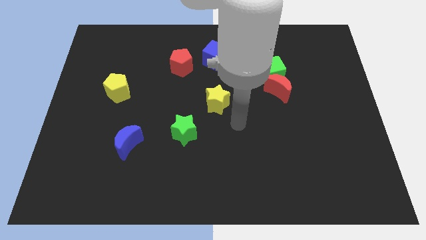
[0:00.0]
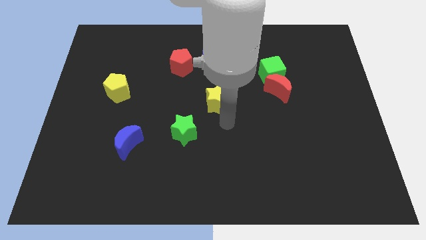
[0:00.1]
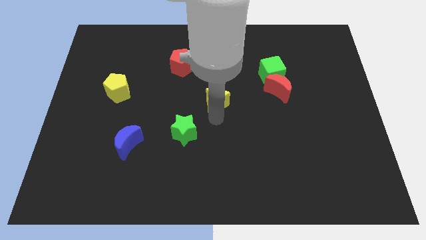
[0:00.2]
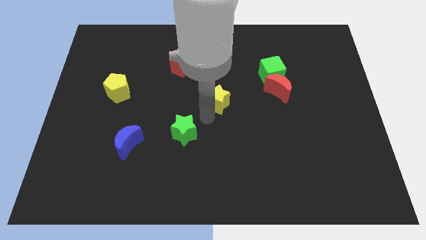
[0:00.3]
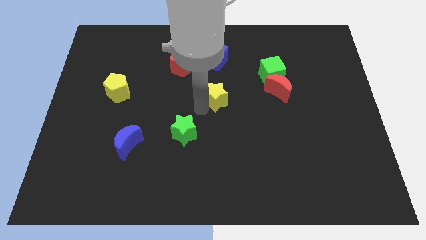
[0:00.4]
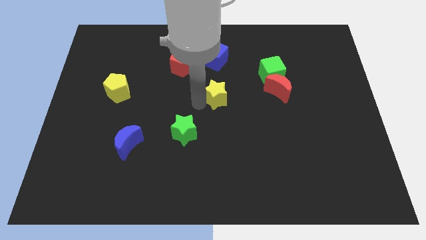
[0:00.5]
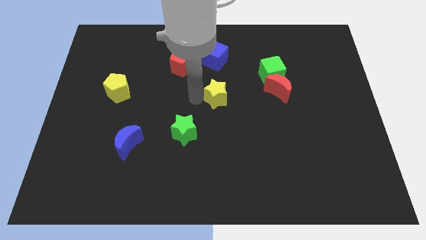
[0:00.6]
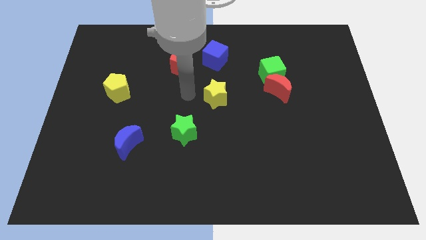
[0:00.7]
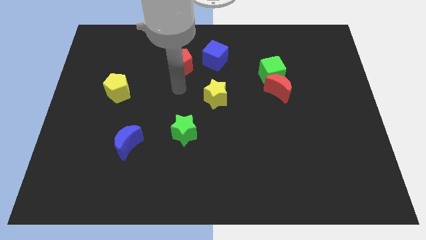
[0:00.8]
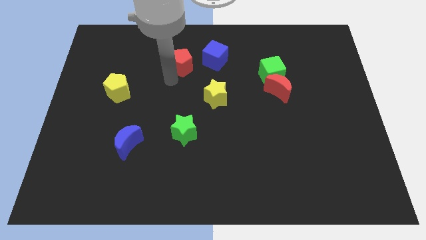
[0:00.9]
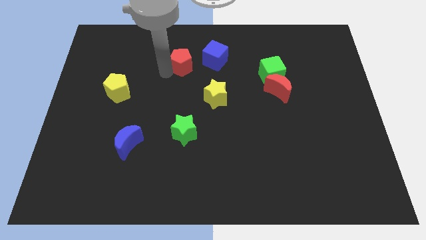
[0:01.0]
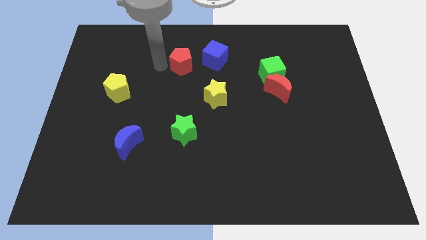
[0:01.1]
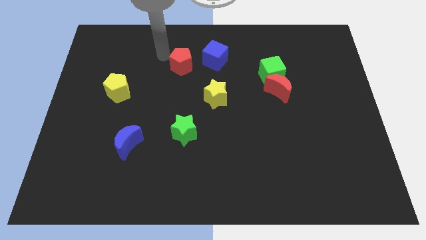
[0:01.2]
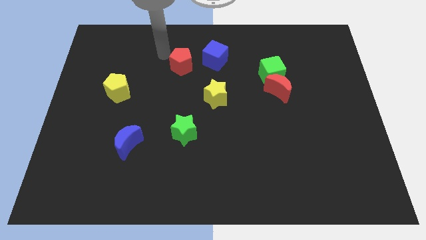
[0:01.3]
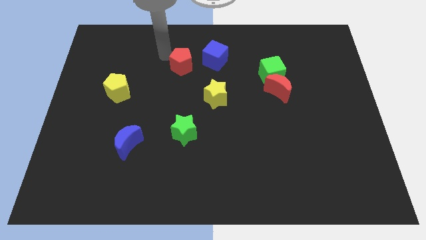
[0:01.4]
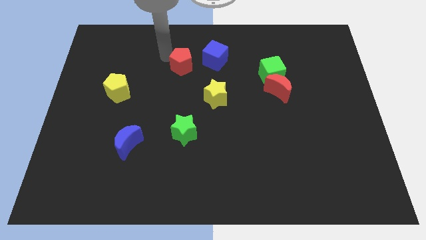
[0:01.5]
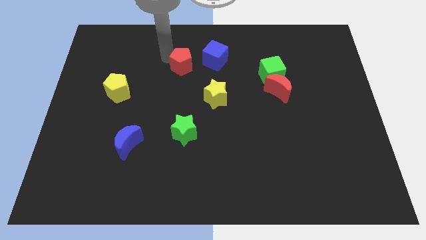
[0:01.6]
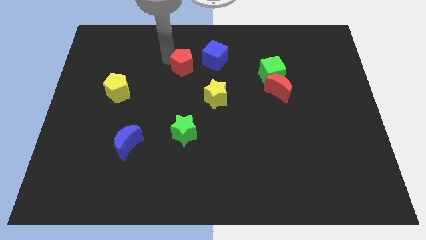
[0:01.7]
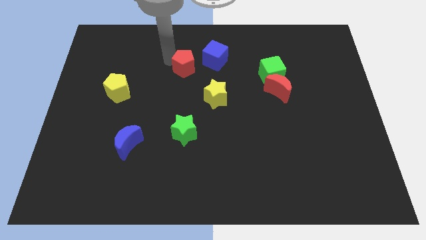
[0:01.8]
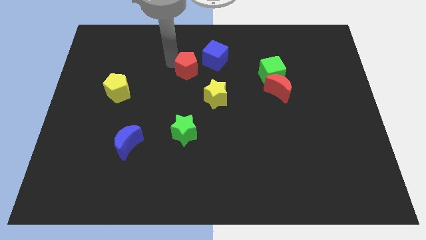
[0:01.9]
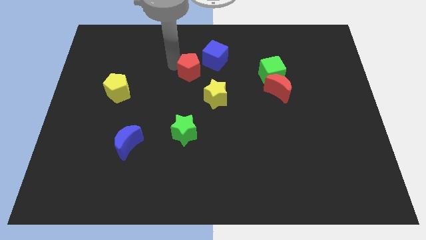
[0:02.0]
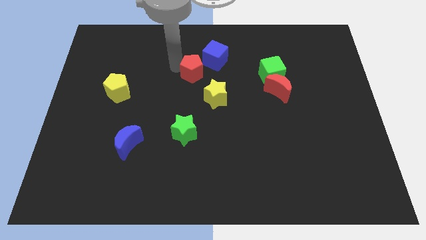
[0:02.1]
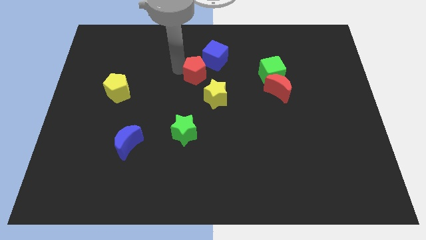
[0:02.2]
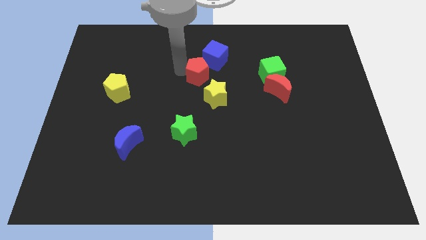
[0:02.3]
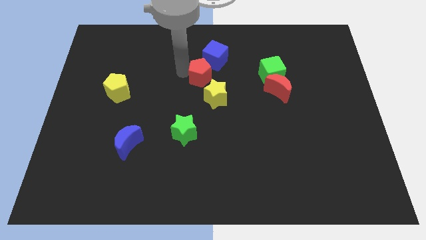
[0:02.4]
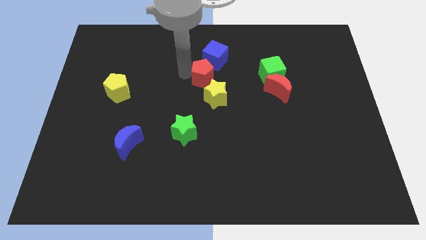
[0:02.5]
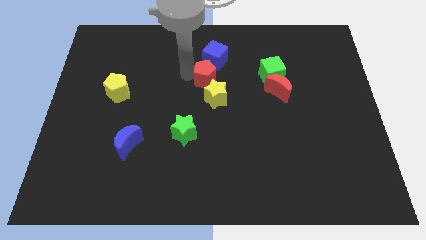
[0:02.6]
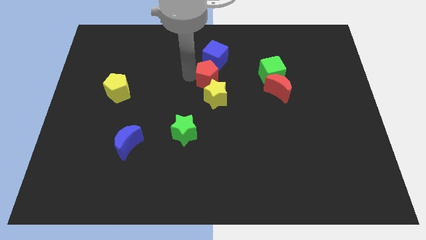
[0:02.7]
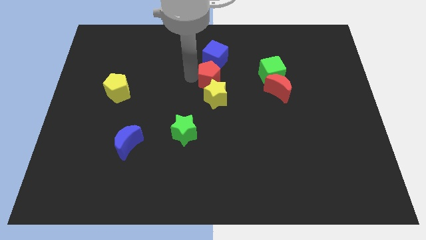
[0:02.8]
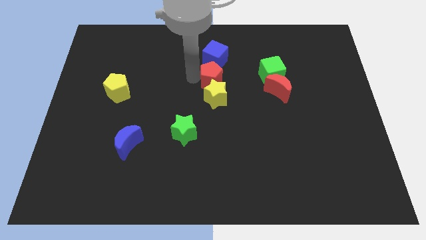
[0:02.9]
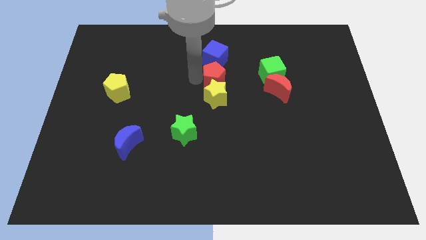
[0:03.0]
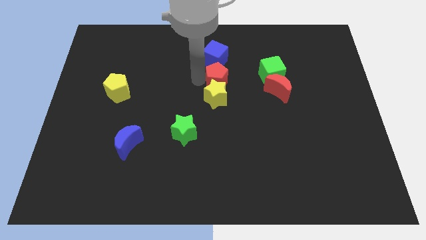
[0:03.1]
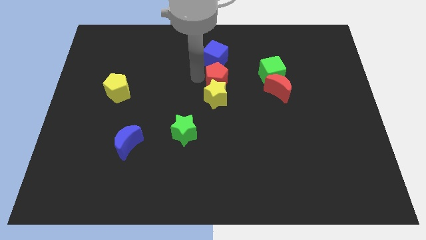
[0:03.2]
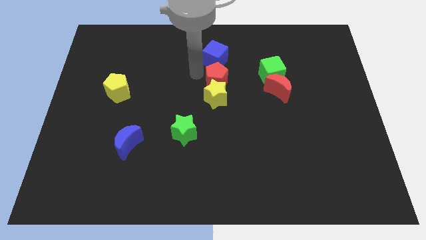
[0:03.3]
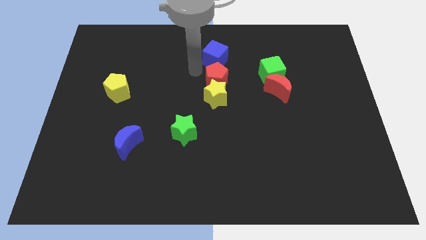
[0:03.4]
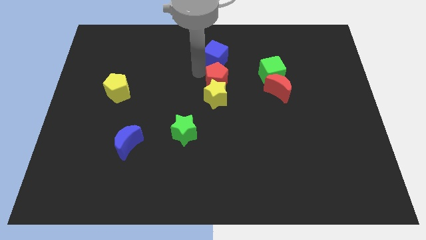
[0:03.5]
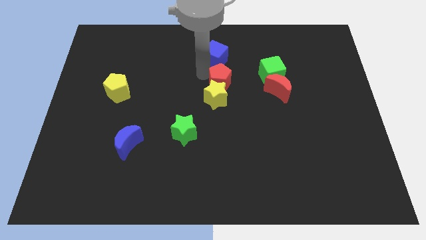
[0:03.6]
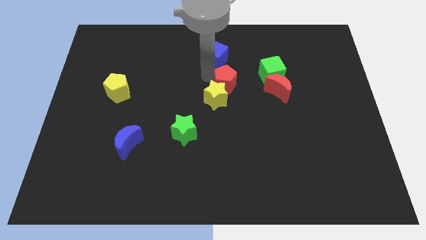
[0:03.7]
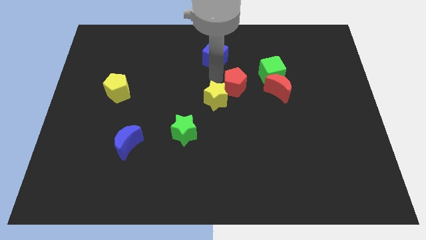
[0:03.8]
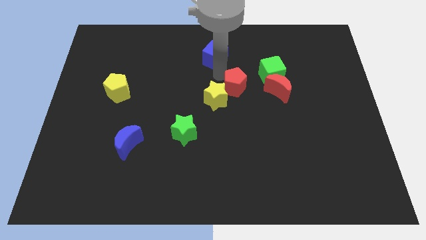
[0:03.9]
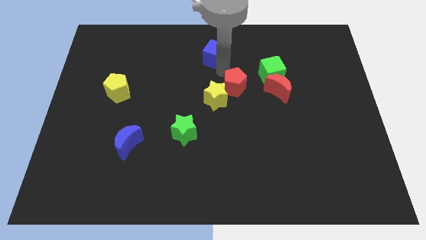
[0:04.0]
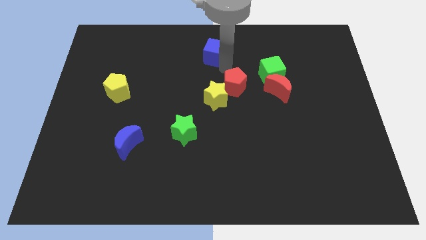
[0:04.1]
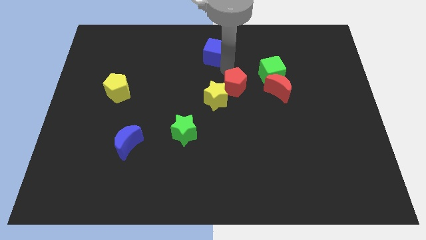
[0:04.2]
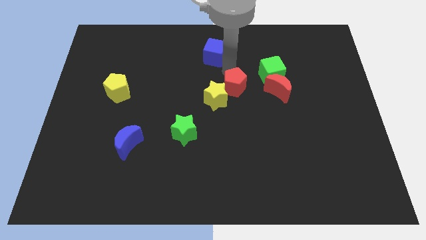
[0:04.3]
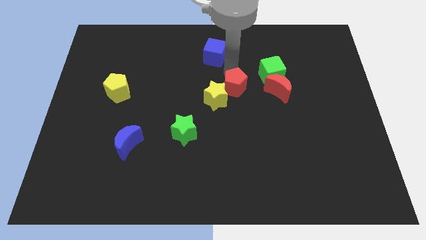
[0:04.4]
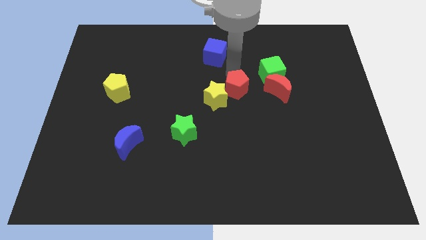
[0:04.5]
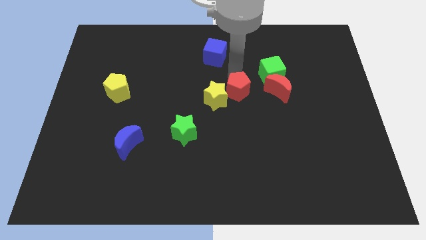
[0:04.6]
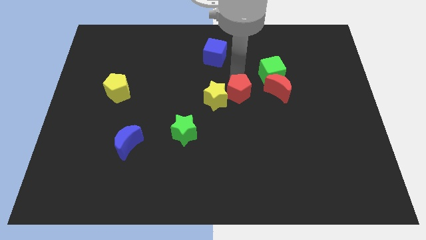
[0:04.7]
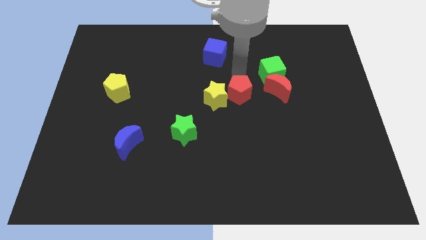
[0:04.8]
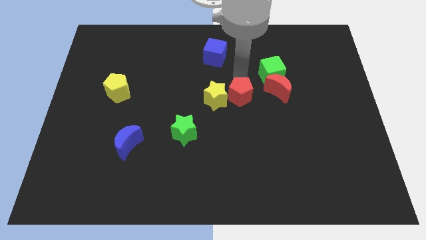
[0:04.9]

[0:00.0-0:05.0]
put the red pentagon to the bottom right of the yellow star

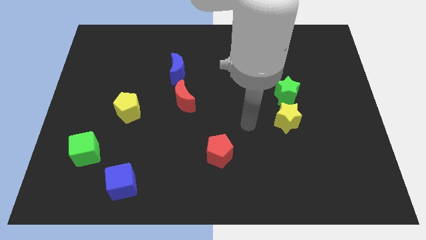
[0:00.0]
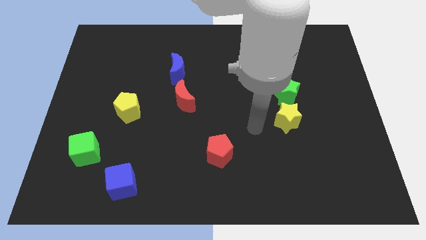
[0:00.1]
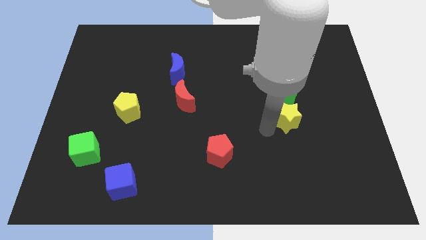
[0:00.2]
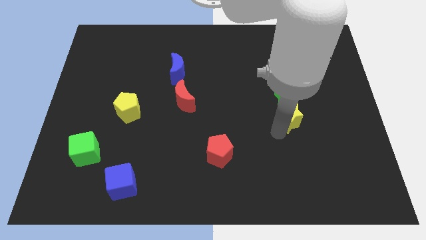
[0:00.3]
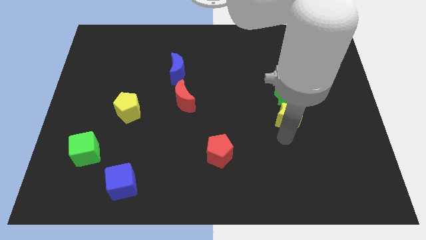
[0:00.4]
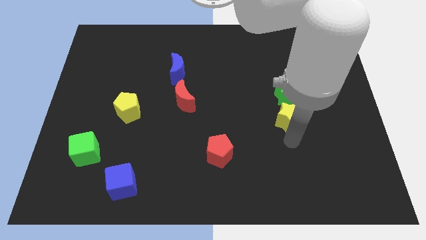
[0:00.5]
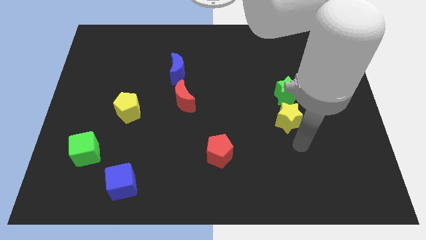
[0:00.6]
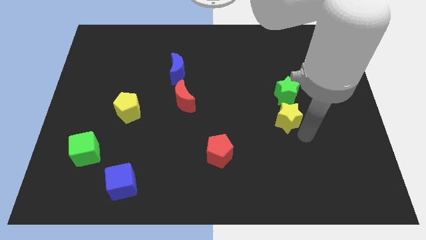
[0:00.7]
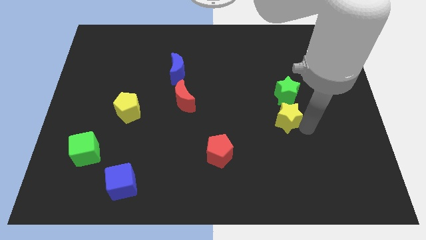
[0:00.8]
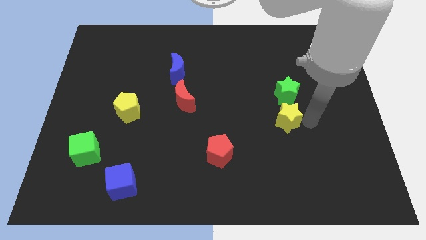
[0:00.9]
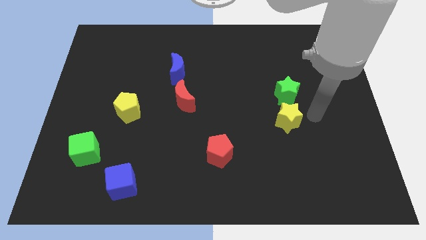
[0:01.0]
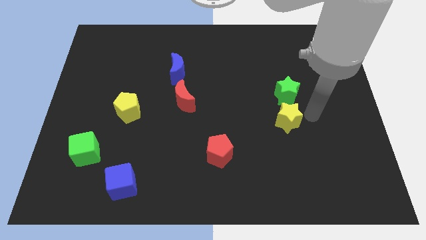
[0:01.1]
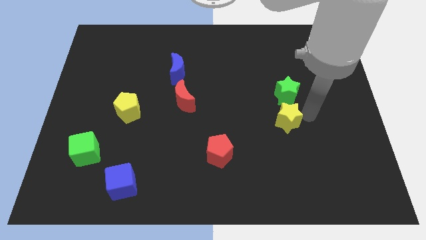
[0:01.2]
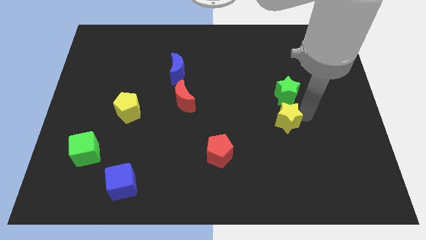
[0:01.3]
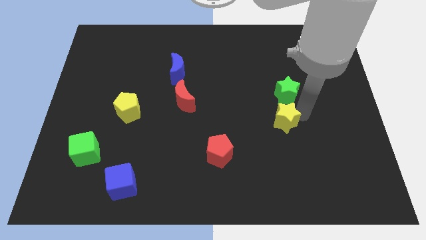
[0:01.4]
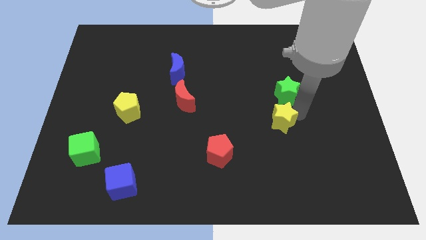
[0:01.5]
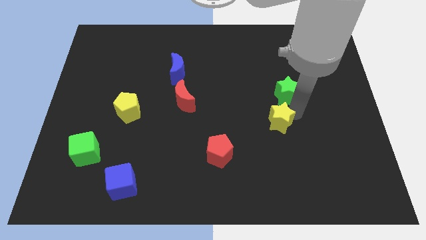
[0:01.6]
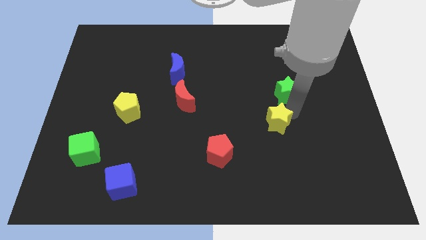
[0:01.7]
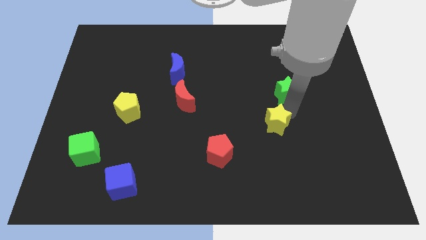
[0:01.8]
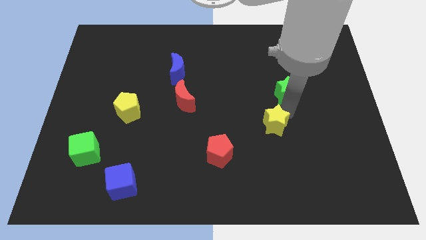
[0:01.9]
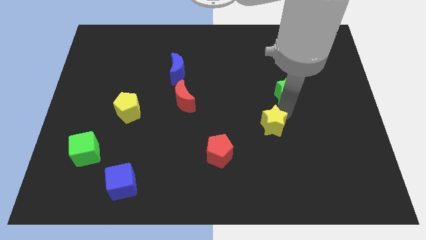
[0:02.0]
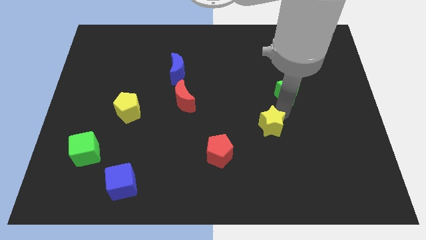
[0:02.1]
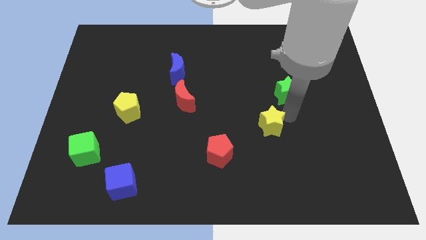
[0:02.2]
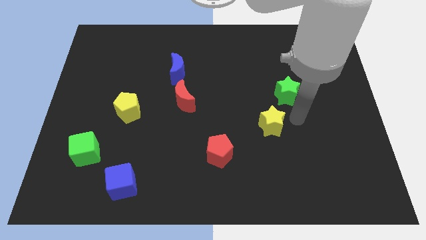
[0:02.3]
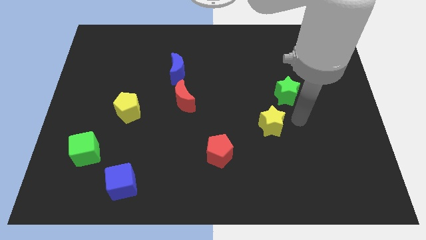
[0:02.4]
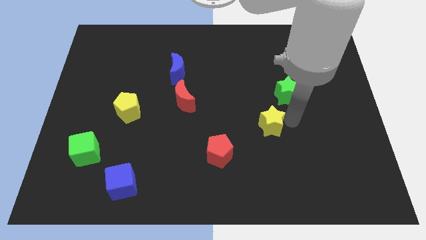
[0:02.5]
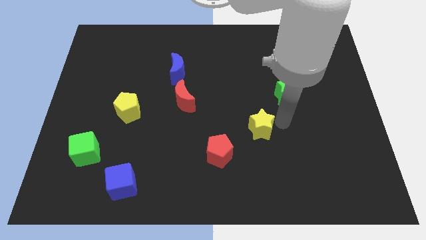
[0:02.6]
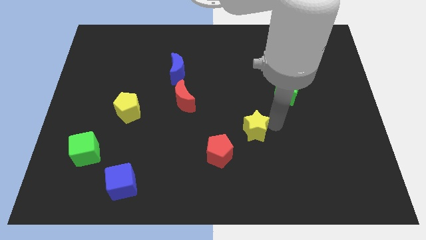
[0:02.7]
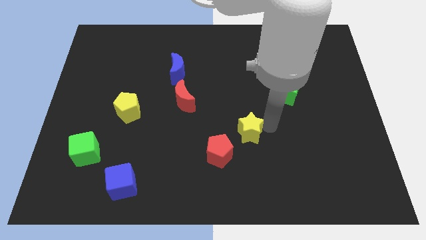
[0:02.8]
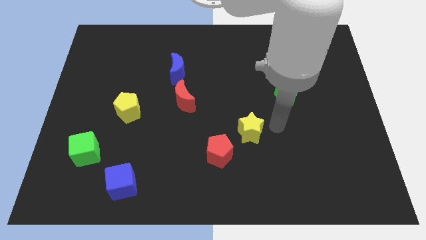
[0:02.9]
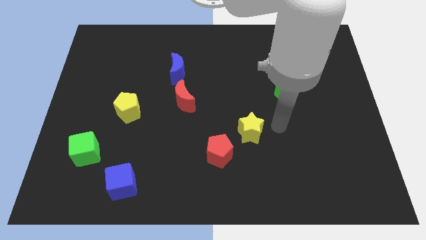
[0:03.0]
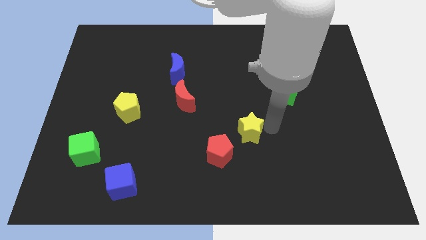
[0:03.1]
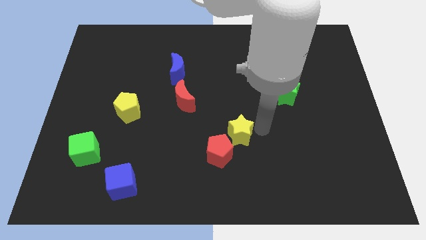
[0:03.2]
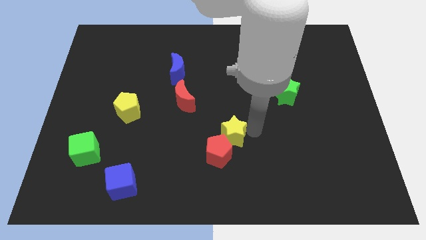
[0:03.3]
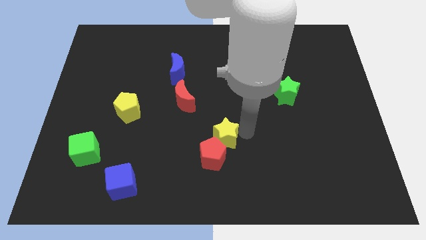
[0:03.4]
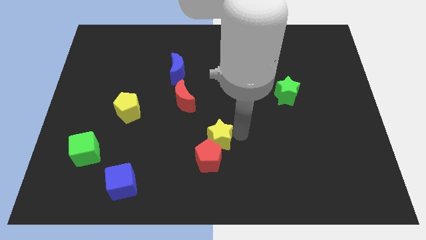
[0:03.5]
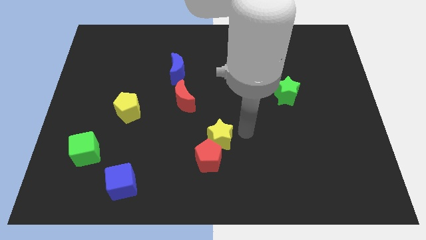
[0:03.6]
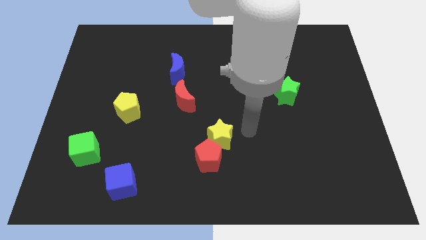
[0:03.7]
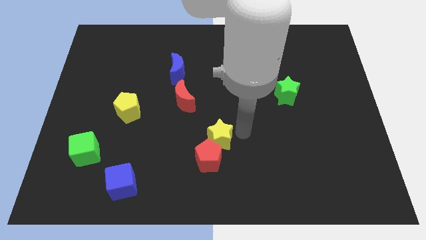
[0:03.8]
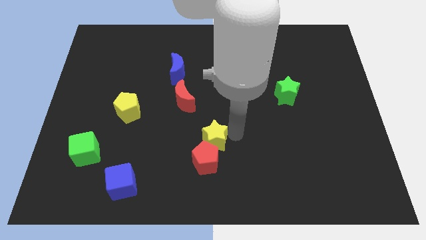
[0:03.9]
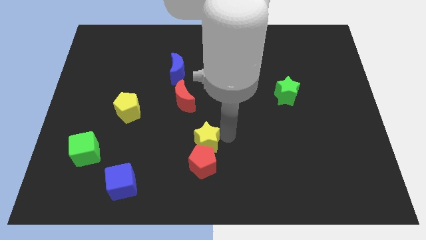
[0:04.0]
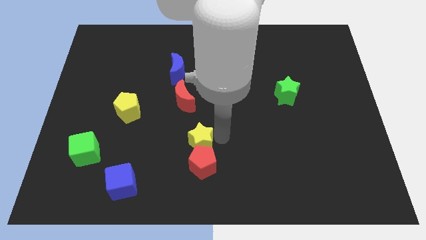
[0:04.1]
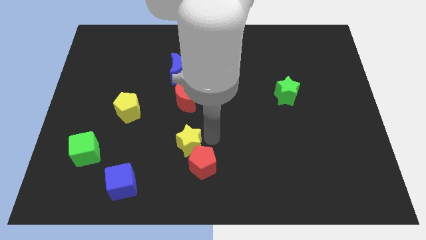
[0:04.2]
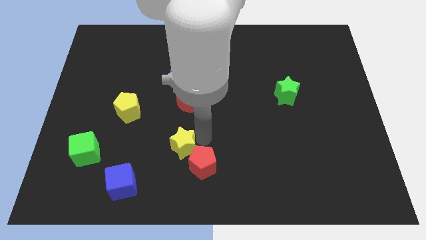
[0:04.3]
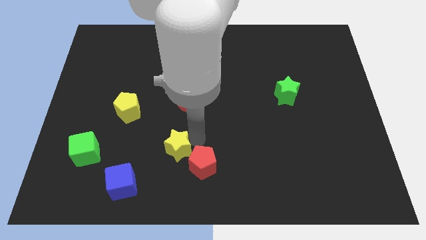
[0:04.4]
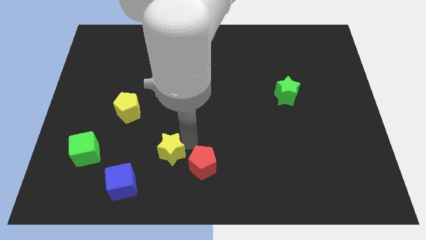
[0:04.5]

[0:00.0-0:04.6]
push the yellow star diagonally up and to the right of the blue cube
